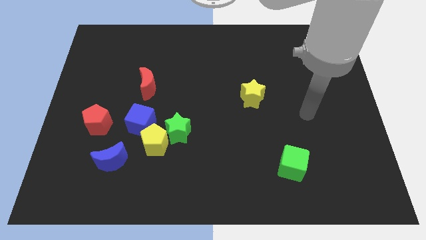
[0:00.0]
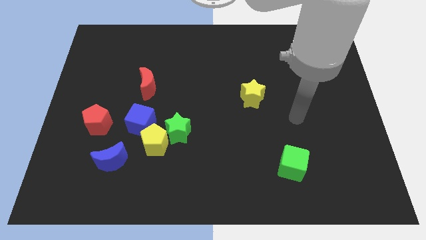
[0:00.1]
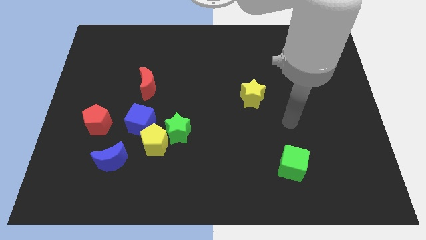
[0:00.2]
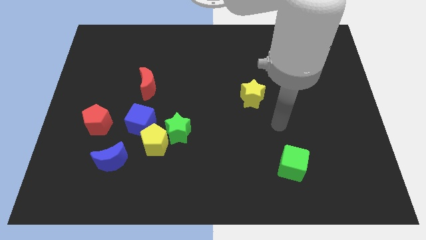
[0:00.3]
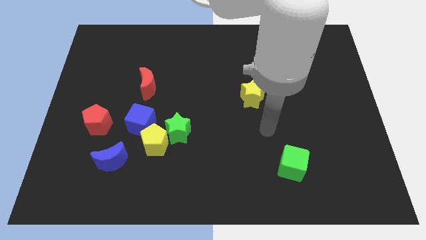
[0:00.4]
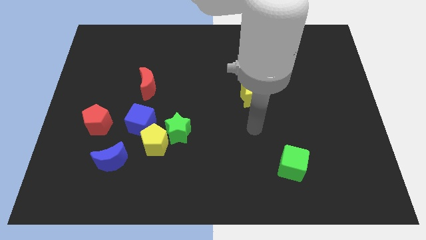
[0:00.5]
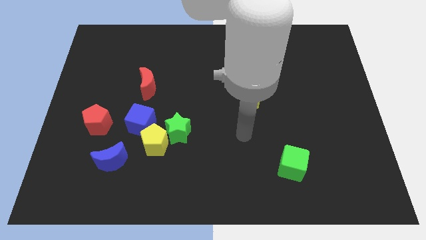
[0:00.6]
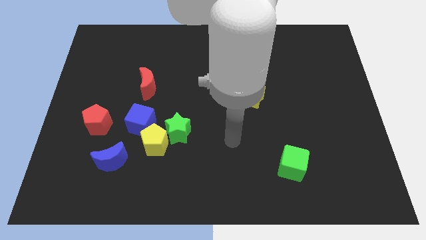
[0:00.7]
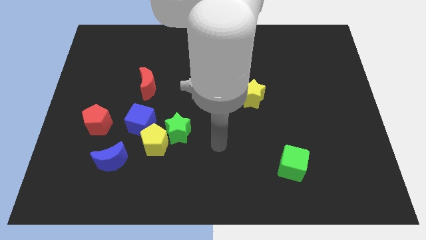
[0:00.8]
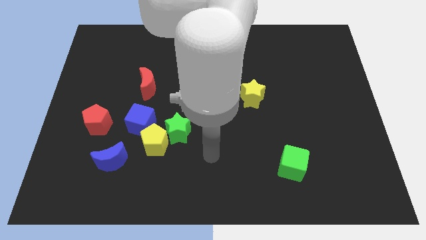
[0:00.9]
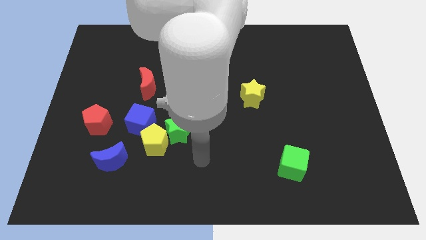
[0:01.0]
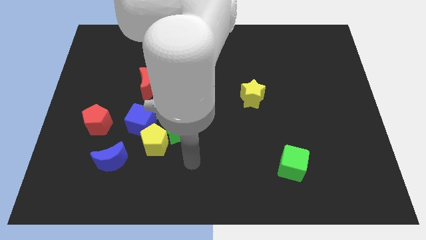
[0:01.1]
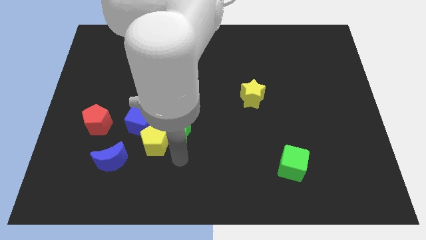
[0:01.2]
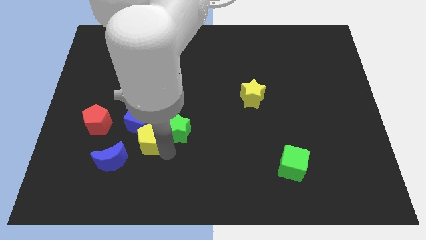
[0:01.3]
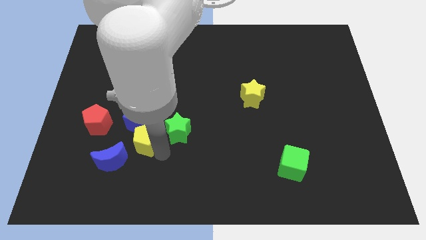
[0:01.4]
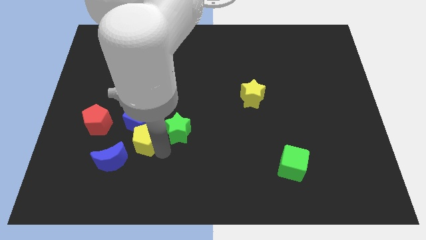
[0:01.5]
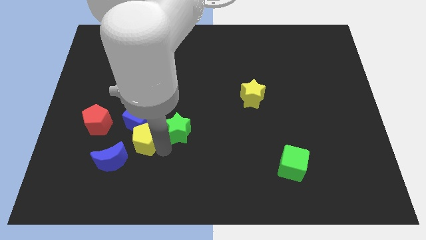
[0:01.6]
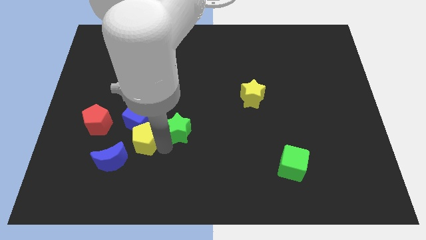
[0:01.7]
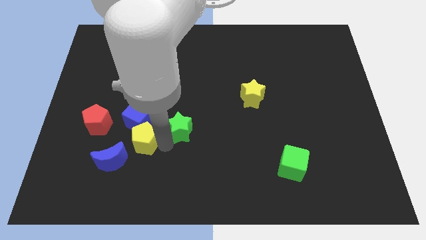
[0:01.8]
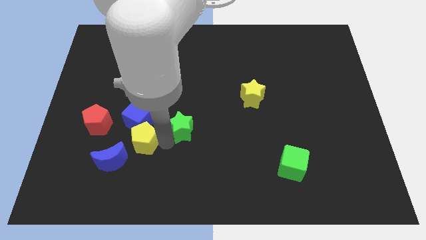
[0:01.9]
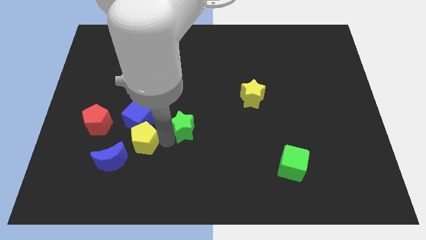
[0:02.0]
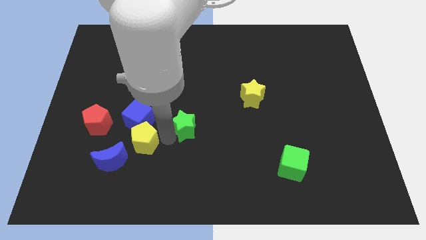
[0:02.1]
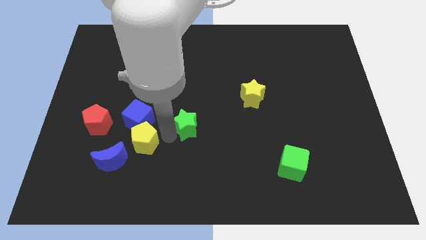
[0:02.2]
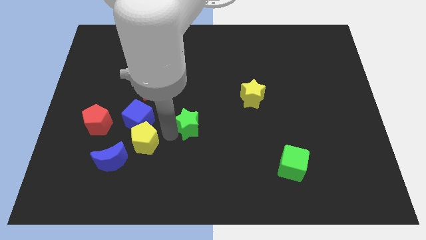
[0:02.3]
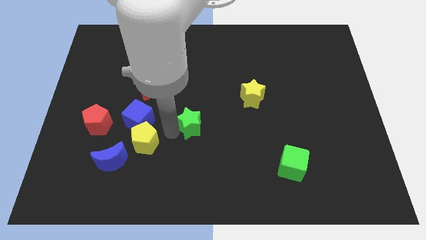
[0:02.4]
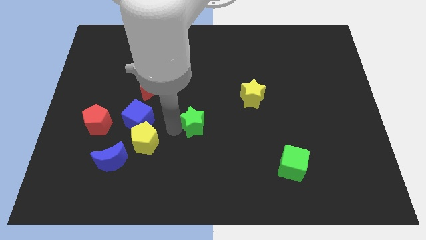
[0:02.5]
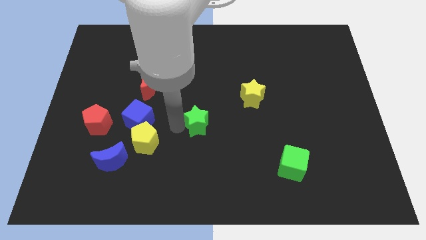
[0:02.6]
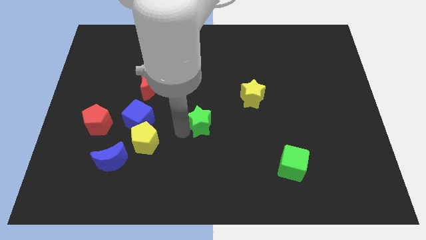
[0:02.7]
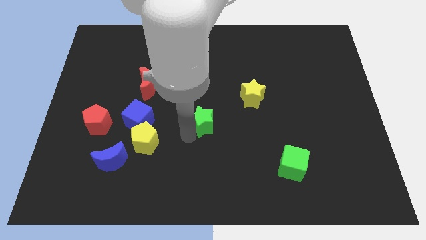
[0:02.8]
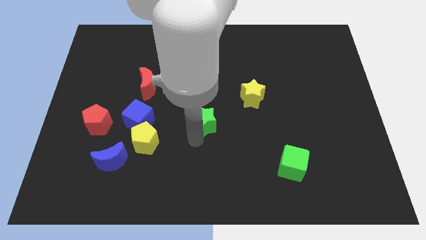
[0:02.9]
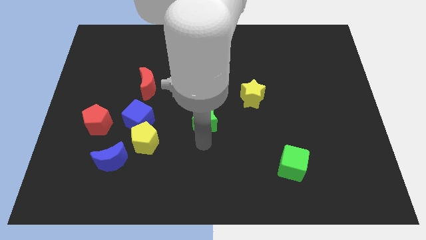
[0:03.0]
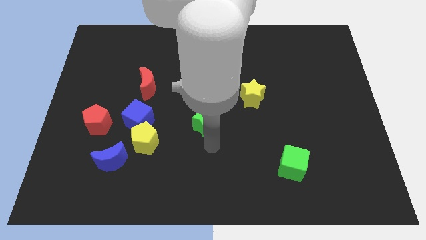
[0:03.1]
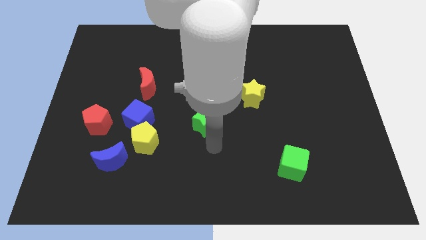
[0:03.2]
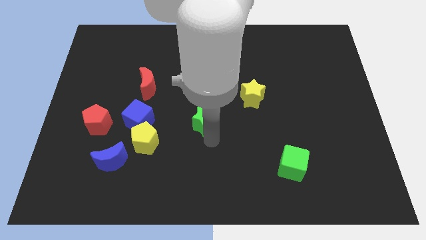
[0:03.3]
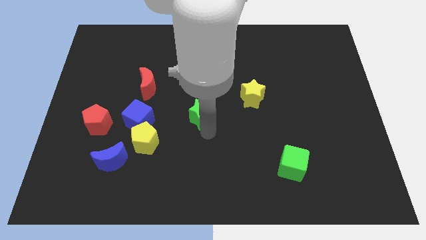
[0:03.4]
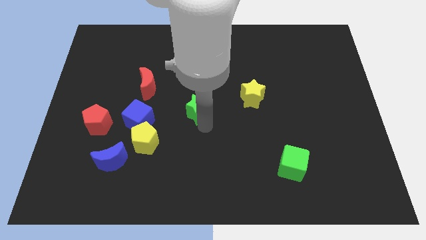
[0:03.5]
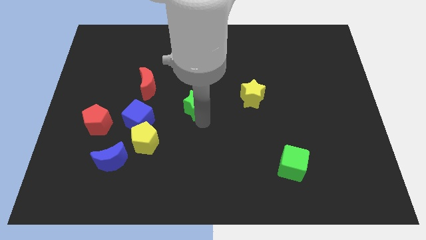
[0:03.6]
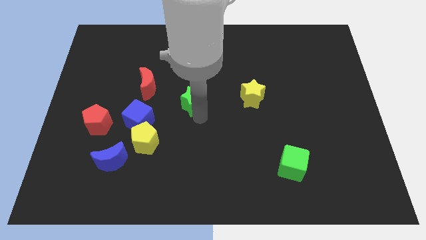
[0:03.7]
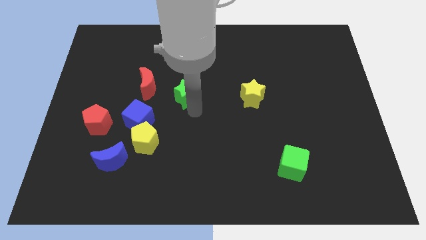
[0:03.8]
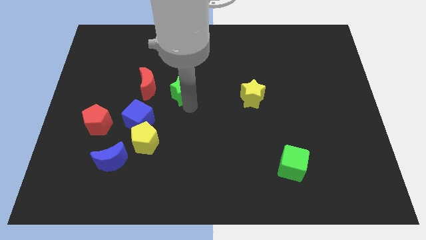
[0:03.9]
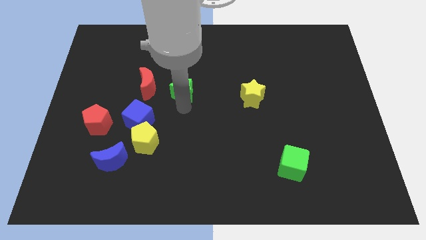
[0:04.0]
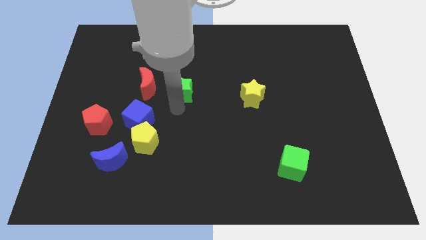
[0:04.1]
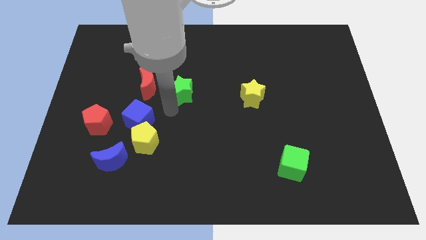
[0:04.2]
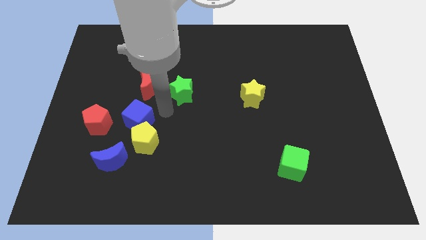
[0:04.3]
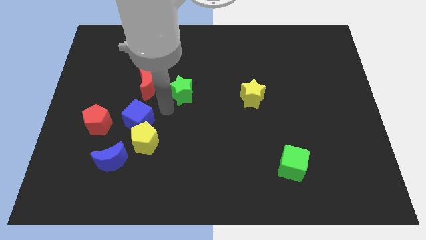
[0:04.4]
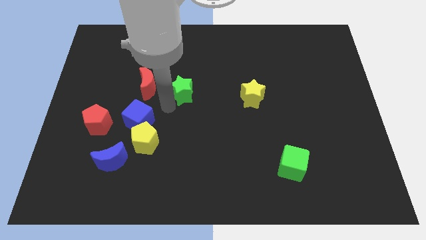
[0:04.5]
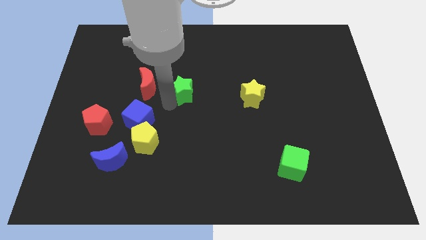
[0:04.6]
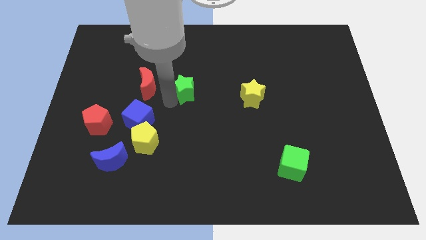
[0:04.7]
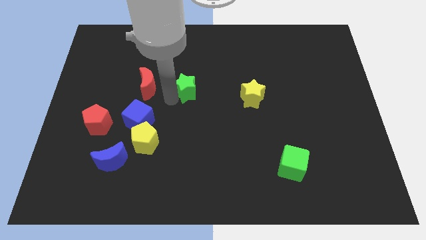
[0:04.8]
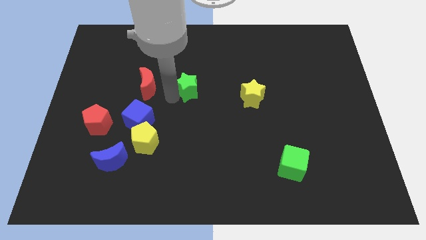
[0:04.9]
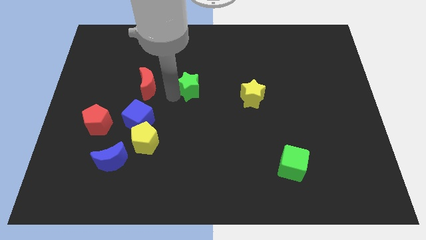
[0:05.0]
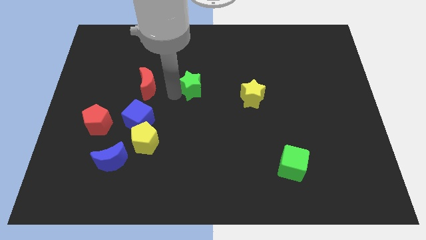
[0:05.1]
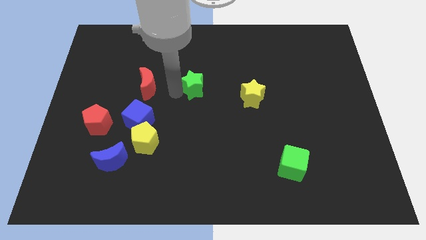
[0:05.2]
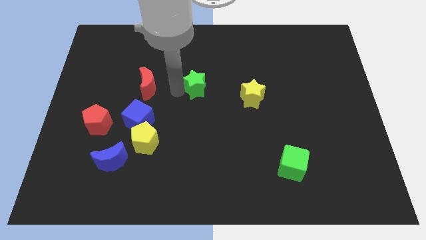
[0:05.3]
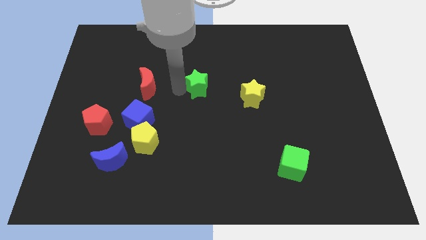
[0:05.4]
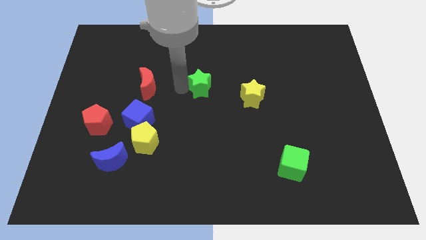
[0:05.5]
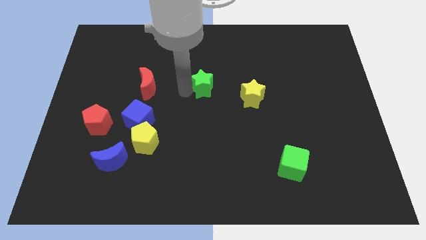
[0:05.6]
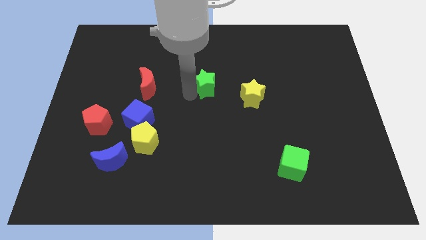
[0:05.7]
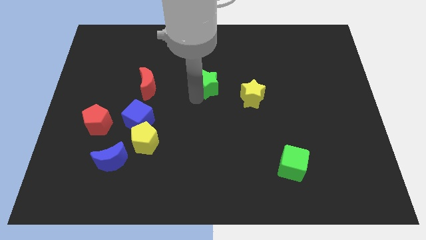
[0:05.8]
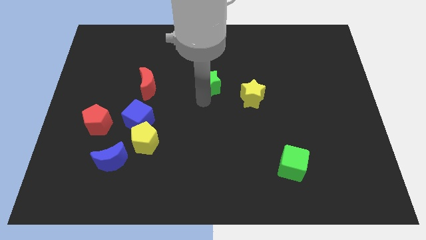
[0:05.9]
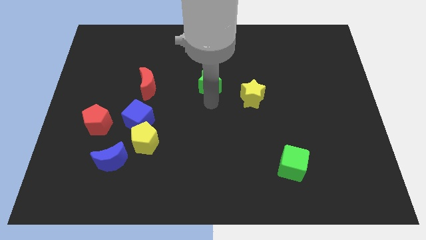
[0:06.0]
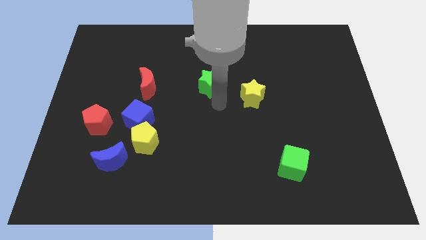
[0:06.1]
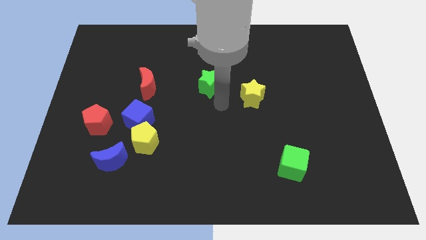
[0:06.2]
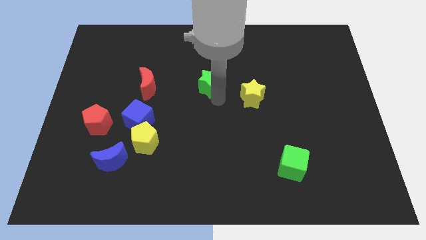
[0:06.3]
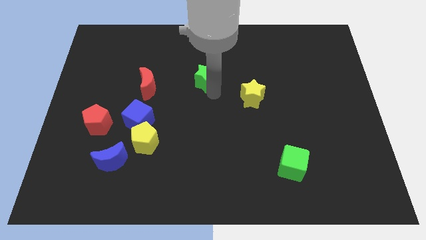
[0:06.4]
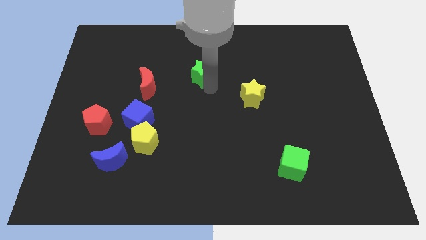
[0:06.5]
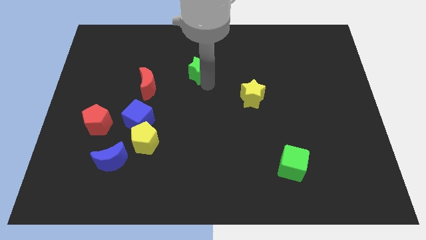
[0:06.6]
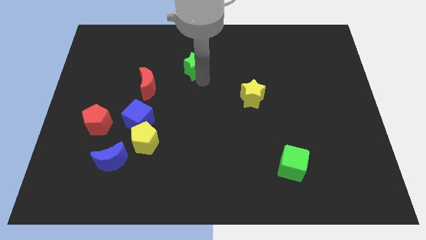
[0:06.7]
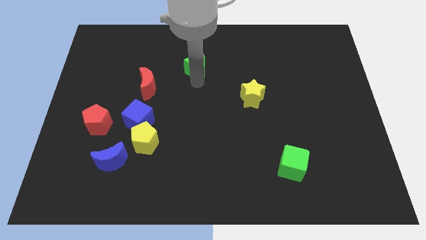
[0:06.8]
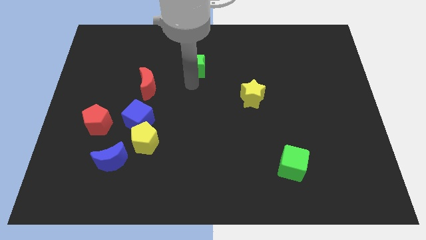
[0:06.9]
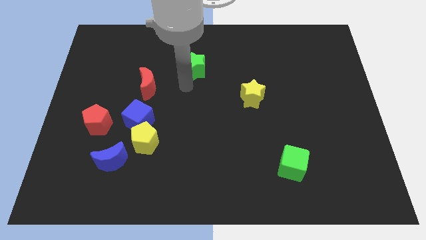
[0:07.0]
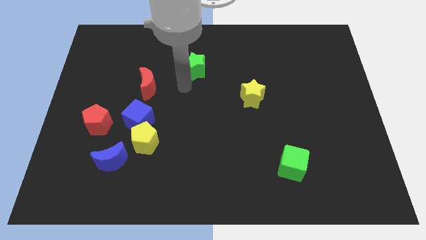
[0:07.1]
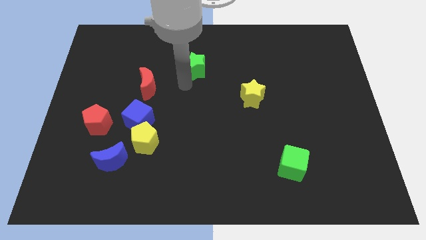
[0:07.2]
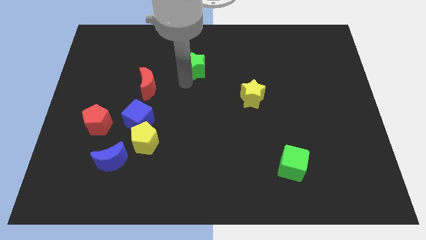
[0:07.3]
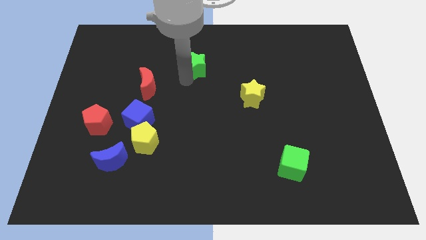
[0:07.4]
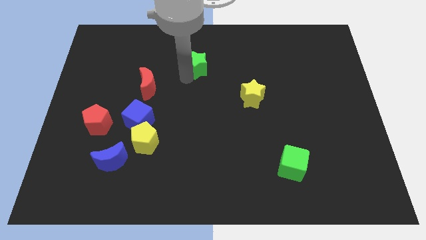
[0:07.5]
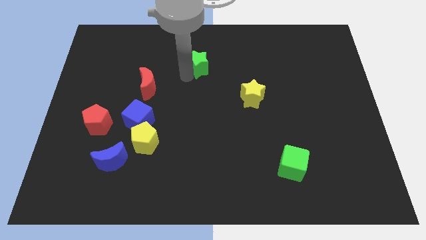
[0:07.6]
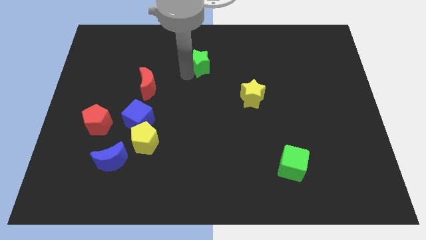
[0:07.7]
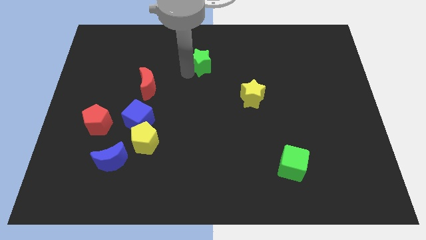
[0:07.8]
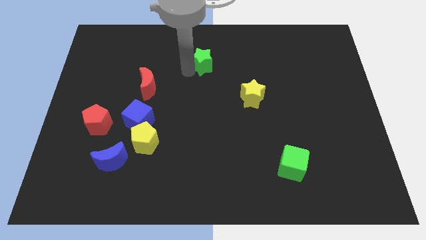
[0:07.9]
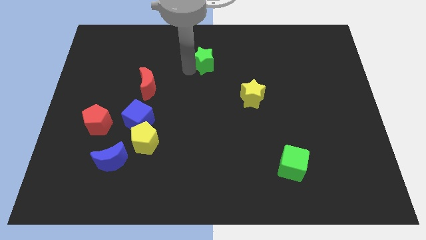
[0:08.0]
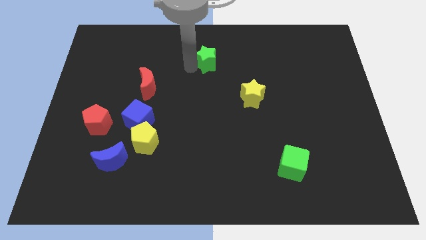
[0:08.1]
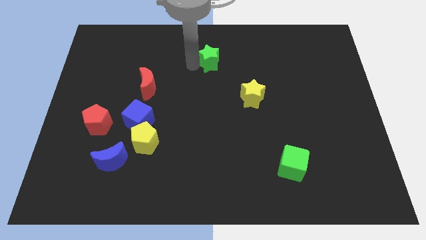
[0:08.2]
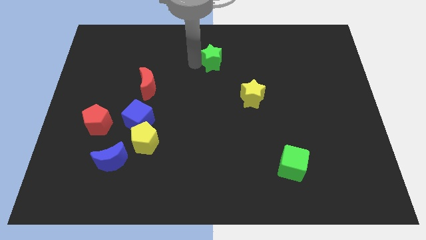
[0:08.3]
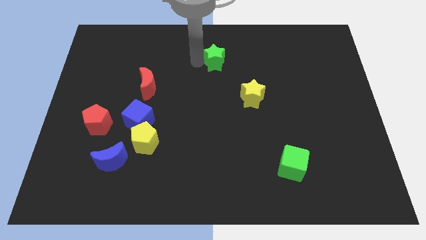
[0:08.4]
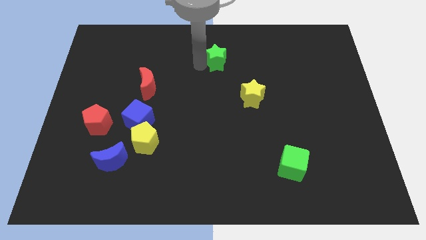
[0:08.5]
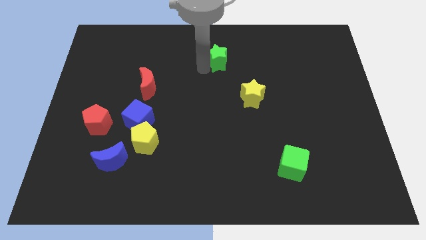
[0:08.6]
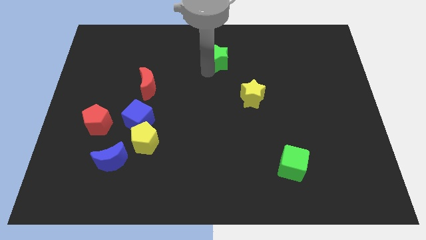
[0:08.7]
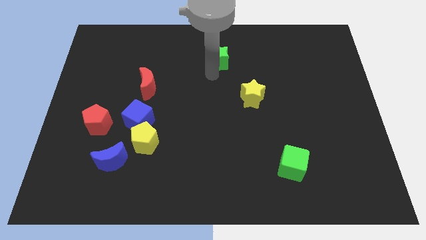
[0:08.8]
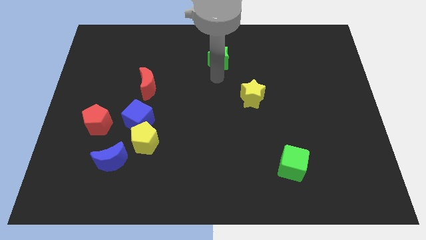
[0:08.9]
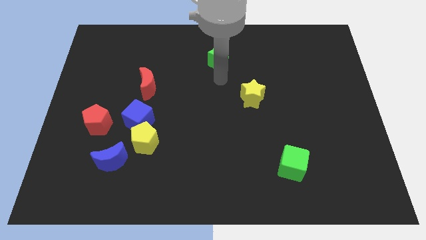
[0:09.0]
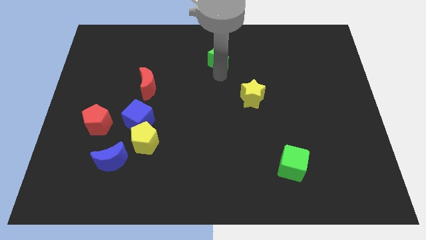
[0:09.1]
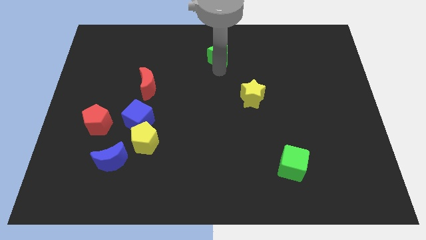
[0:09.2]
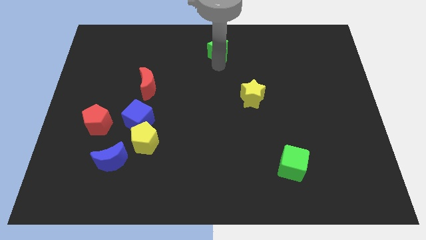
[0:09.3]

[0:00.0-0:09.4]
push the green star to the top
